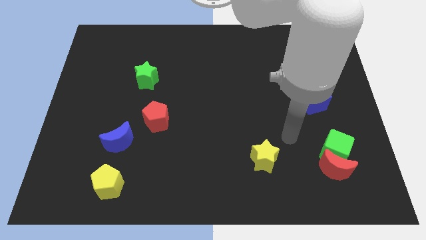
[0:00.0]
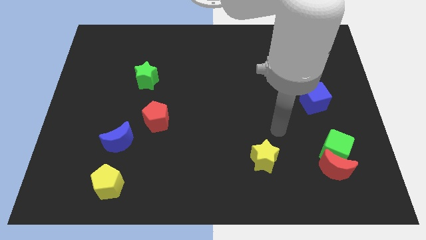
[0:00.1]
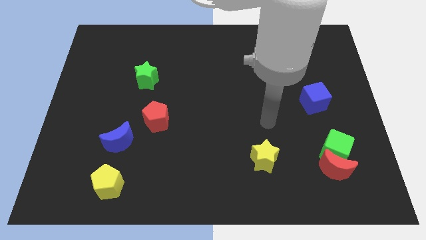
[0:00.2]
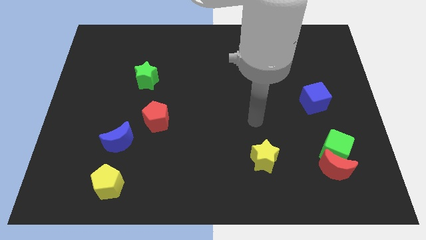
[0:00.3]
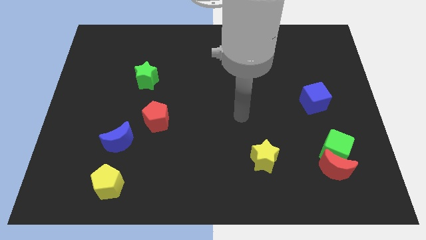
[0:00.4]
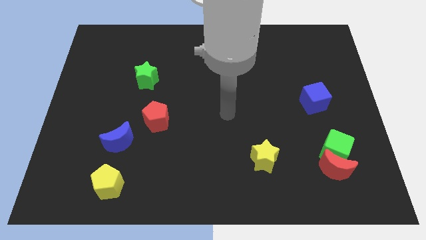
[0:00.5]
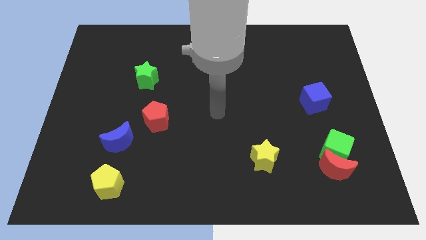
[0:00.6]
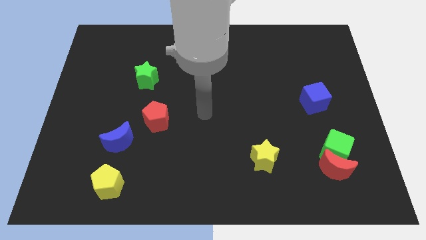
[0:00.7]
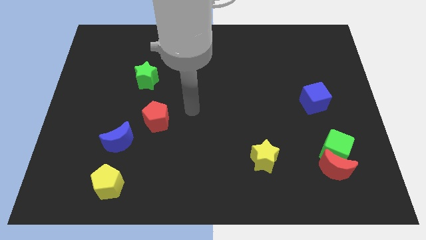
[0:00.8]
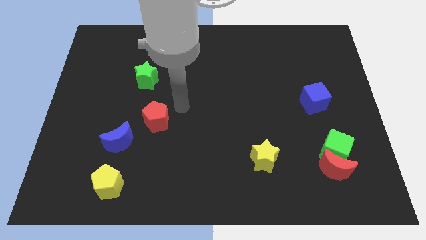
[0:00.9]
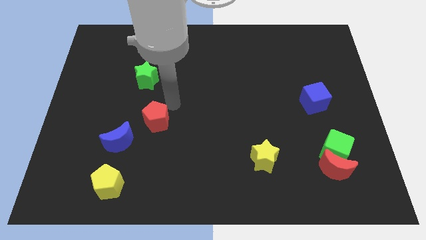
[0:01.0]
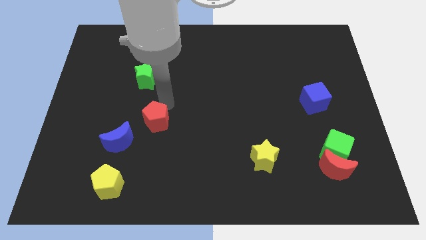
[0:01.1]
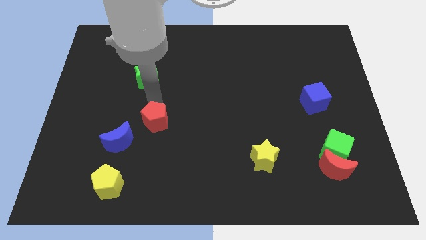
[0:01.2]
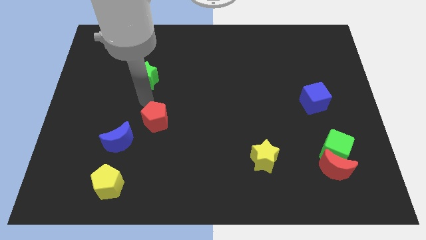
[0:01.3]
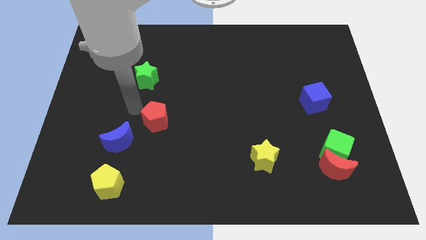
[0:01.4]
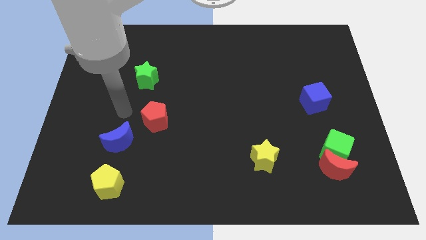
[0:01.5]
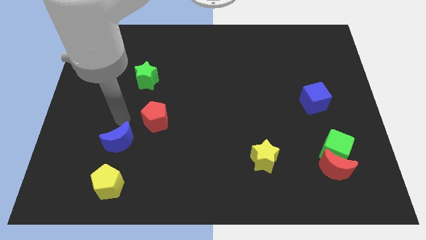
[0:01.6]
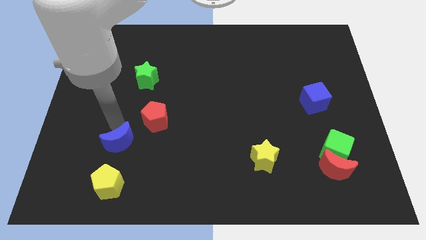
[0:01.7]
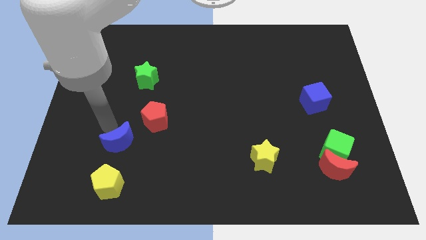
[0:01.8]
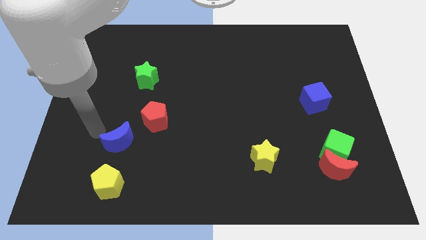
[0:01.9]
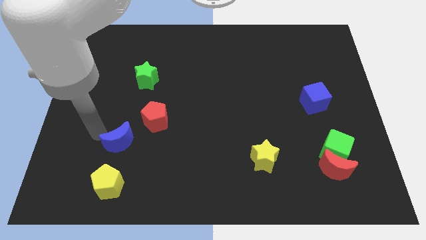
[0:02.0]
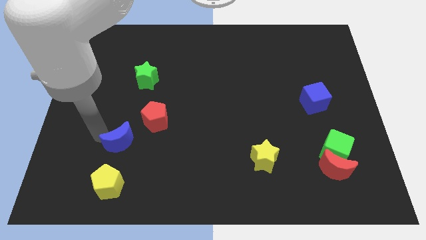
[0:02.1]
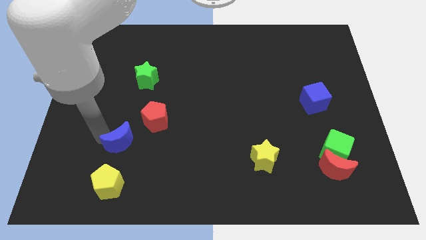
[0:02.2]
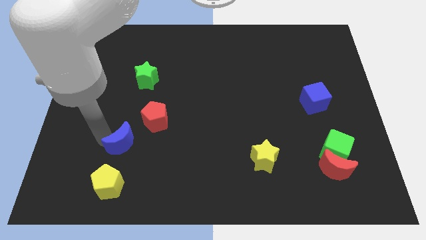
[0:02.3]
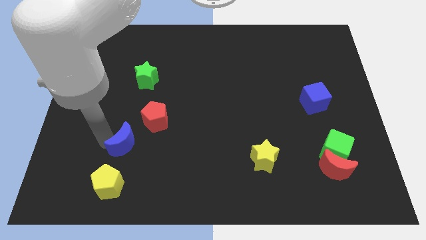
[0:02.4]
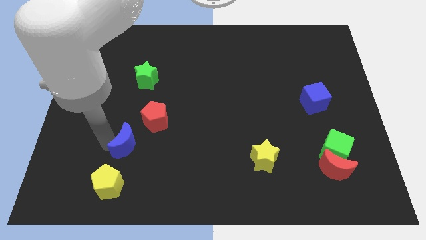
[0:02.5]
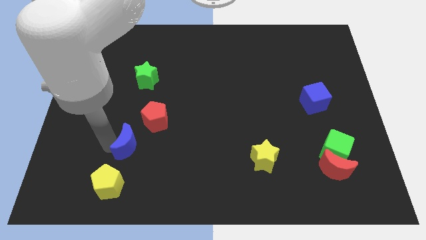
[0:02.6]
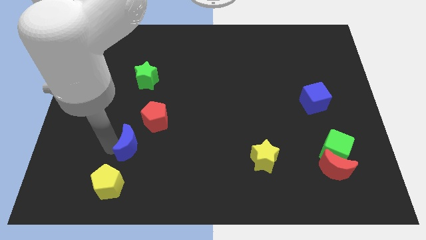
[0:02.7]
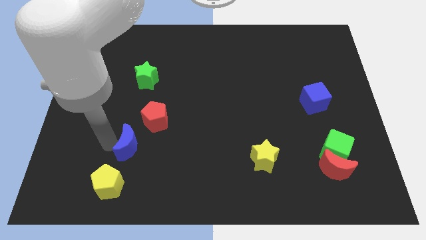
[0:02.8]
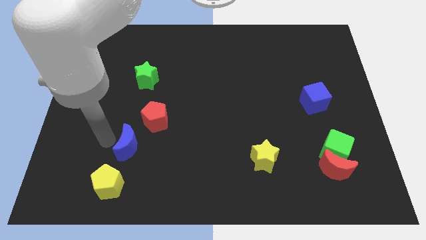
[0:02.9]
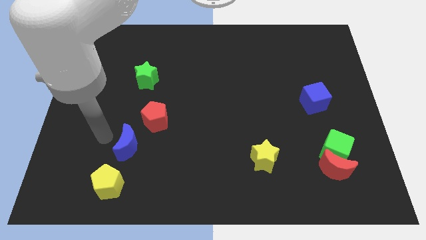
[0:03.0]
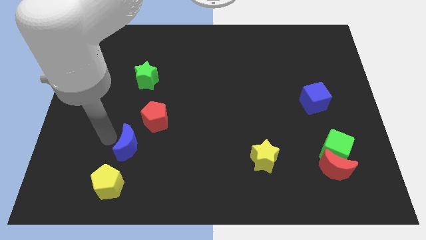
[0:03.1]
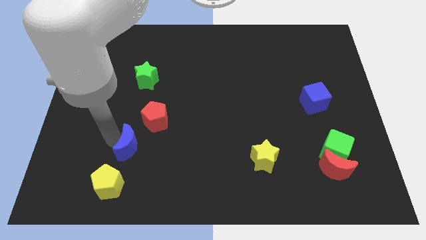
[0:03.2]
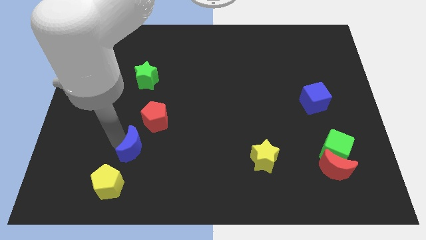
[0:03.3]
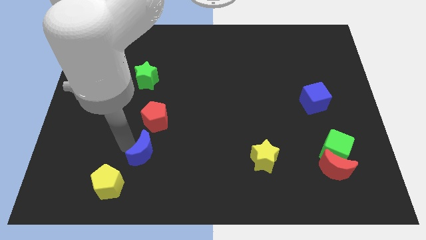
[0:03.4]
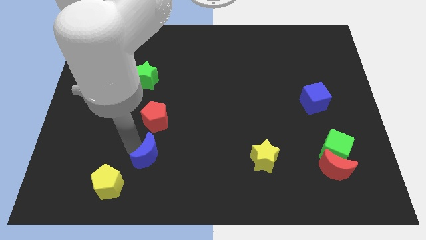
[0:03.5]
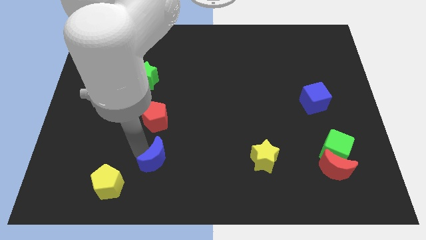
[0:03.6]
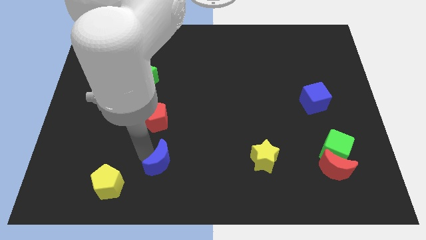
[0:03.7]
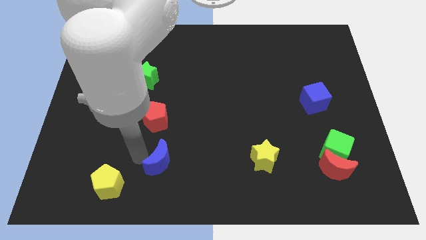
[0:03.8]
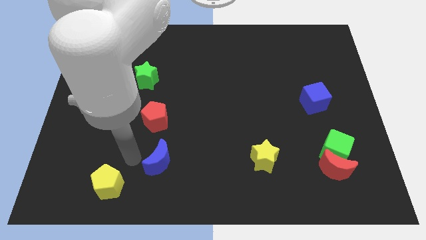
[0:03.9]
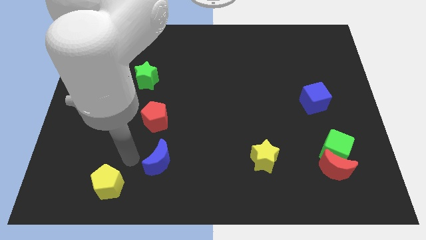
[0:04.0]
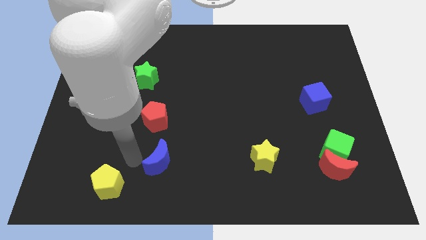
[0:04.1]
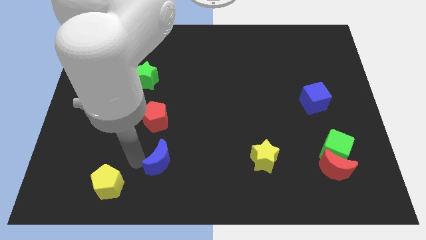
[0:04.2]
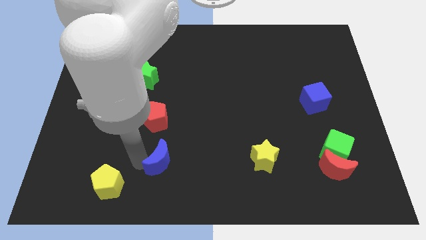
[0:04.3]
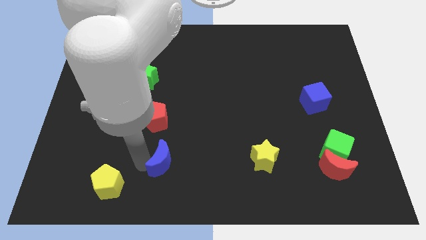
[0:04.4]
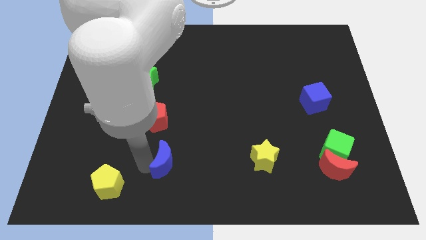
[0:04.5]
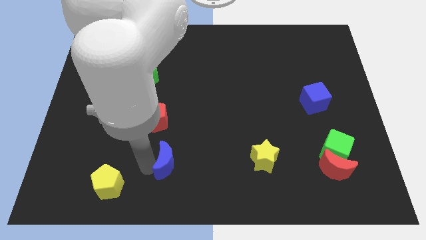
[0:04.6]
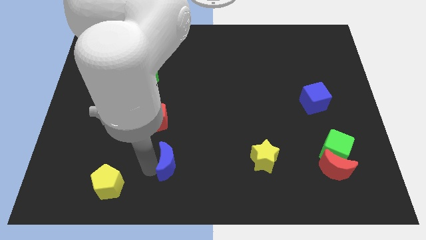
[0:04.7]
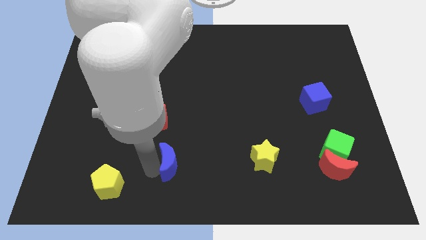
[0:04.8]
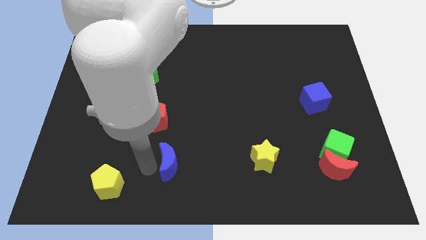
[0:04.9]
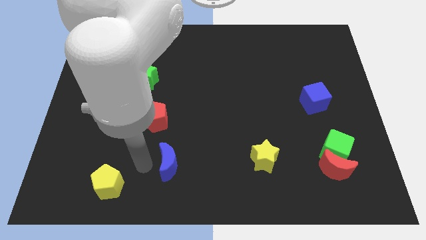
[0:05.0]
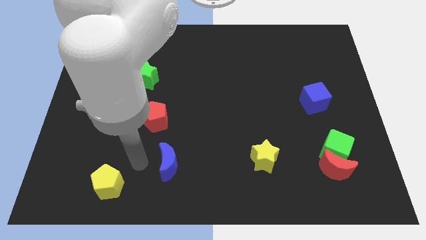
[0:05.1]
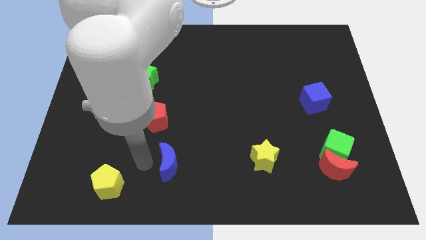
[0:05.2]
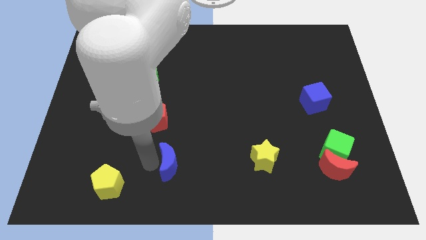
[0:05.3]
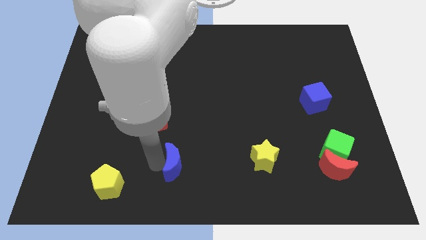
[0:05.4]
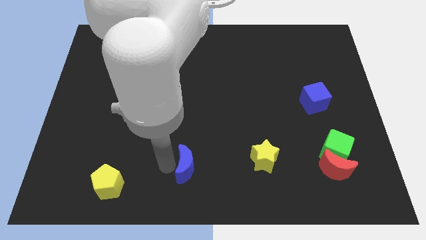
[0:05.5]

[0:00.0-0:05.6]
push the blue moon to the left side of the yellow star

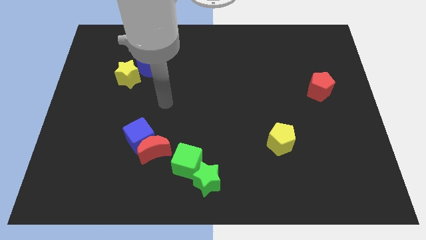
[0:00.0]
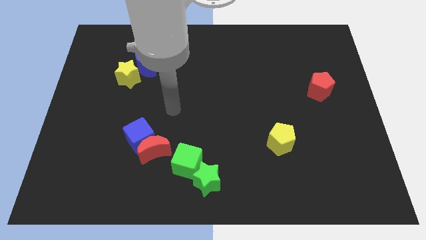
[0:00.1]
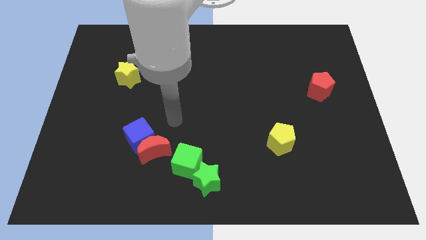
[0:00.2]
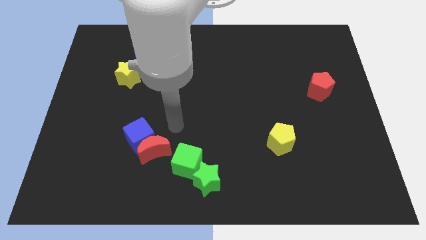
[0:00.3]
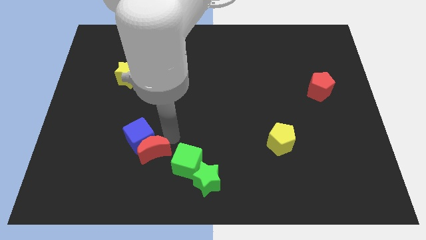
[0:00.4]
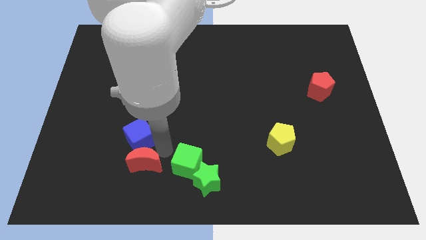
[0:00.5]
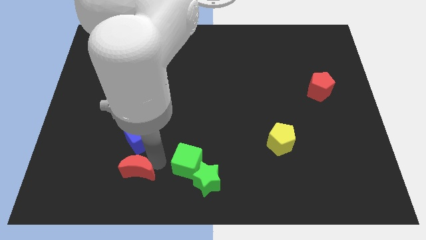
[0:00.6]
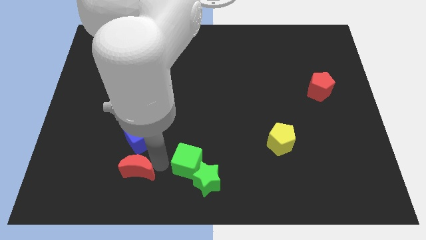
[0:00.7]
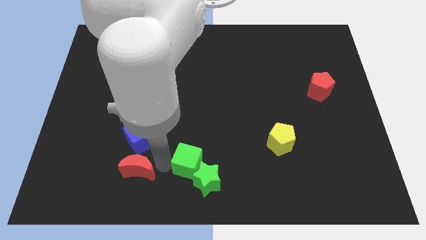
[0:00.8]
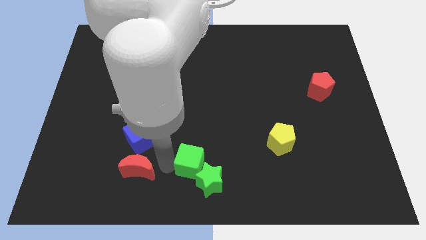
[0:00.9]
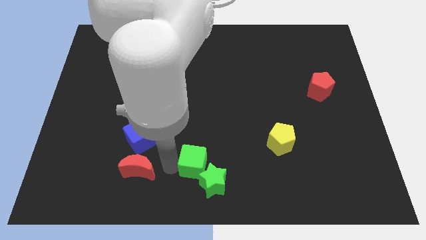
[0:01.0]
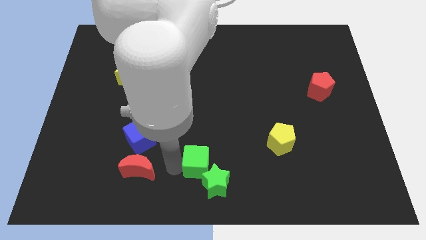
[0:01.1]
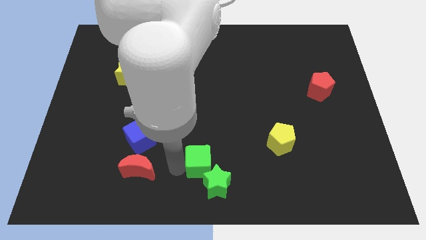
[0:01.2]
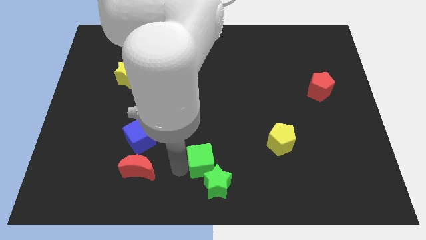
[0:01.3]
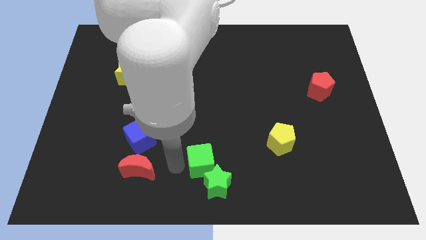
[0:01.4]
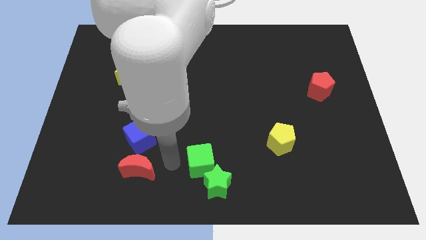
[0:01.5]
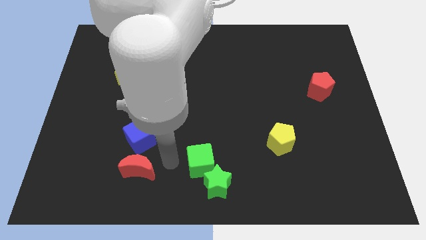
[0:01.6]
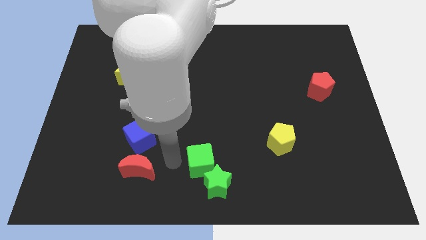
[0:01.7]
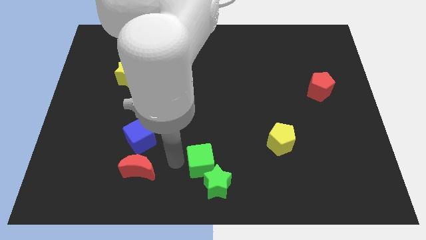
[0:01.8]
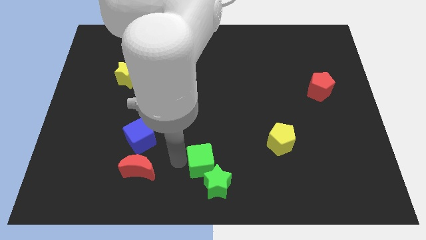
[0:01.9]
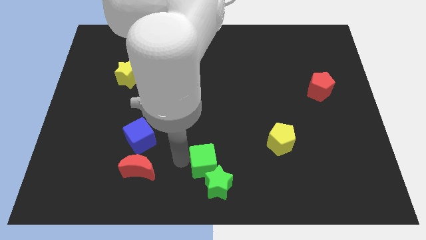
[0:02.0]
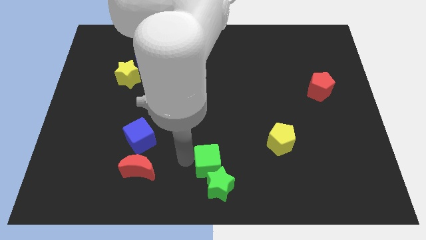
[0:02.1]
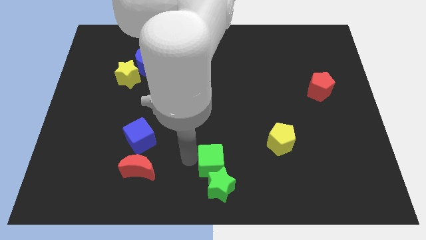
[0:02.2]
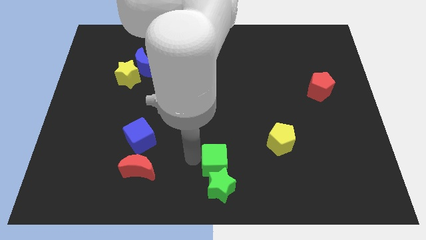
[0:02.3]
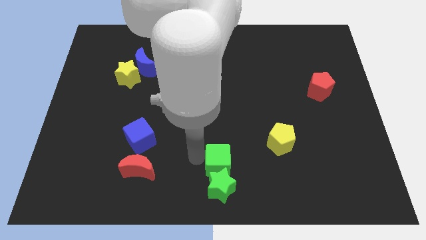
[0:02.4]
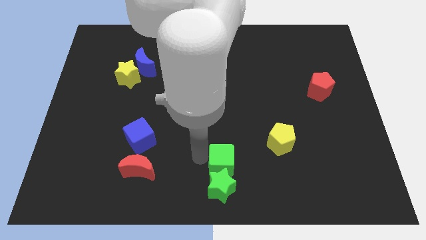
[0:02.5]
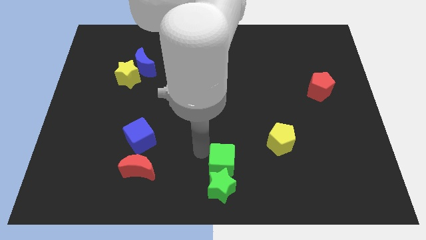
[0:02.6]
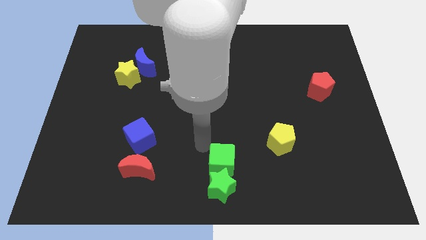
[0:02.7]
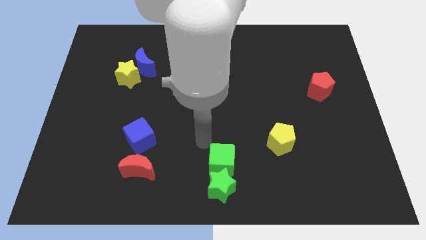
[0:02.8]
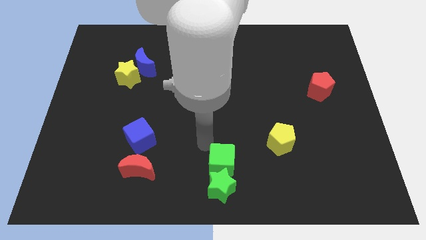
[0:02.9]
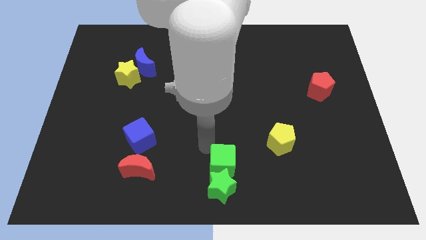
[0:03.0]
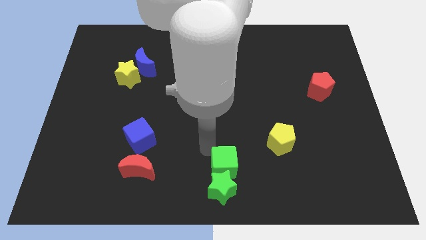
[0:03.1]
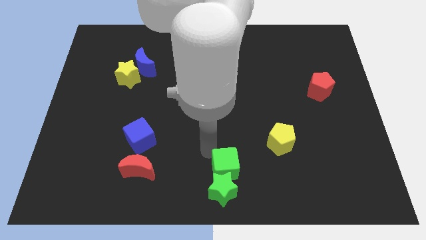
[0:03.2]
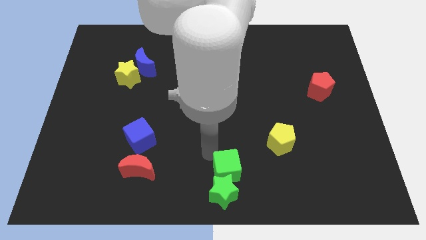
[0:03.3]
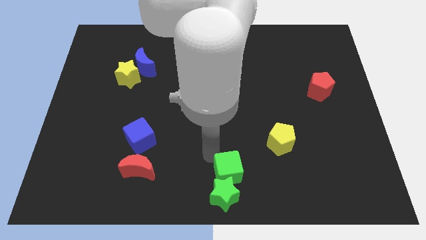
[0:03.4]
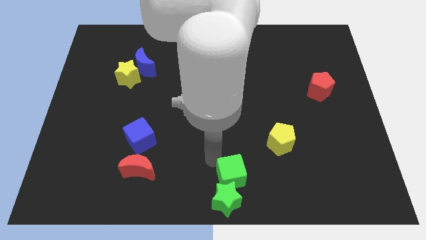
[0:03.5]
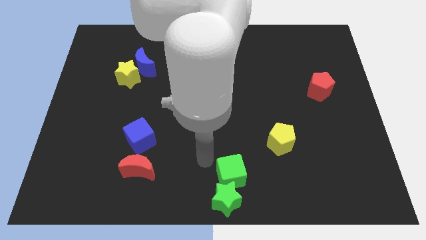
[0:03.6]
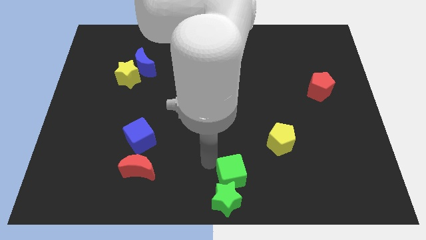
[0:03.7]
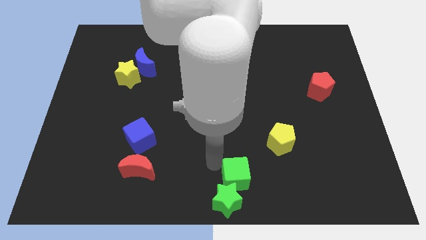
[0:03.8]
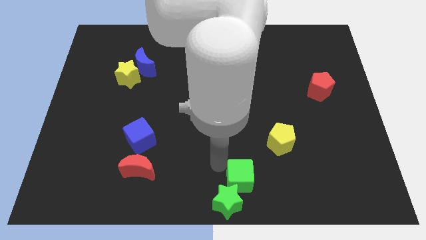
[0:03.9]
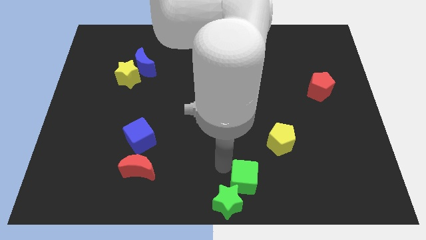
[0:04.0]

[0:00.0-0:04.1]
move the green cube just right of the green star
